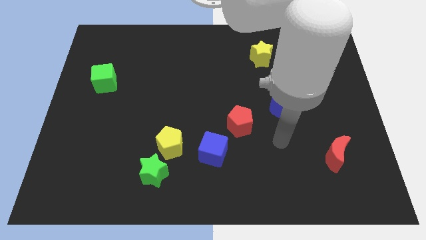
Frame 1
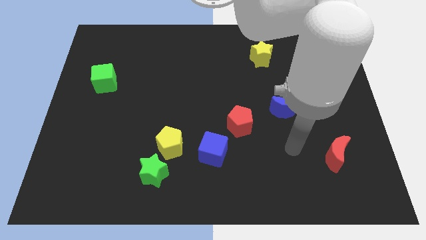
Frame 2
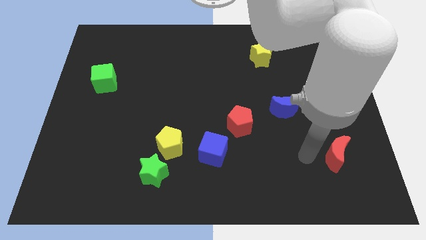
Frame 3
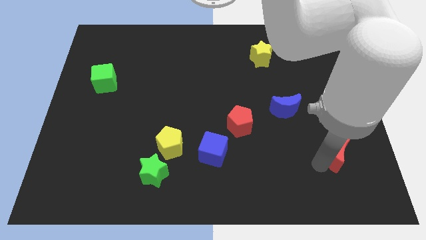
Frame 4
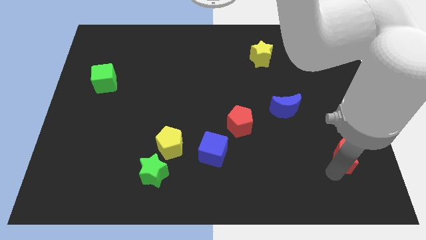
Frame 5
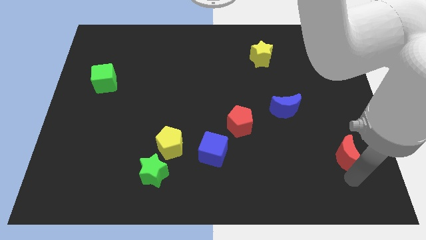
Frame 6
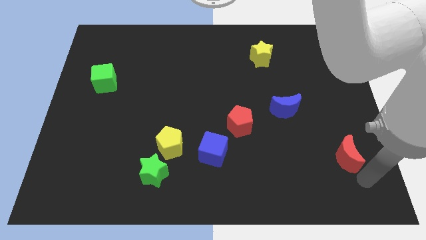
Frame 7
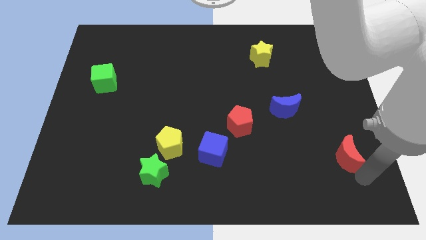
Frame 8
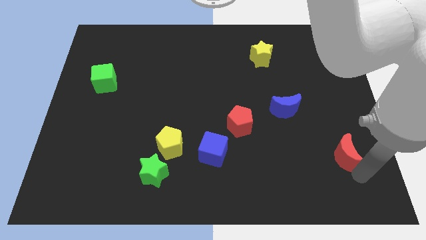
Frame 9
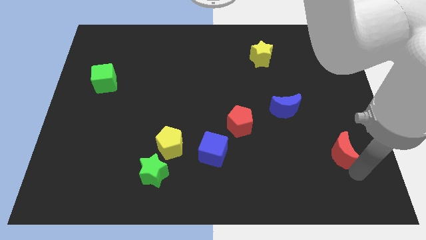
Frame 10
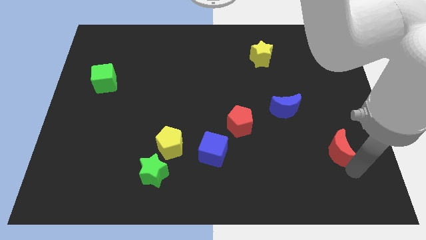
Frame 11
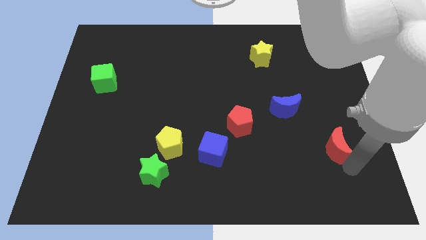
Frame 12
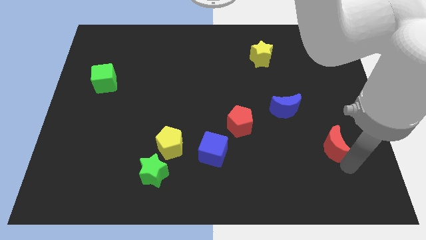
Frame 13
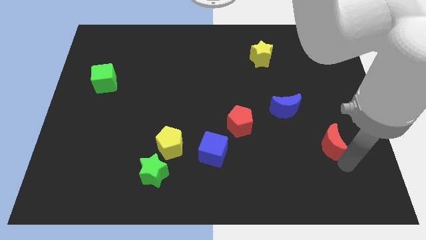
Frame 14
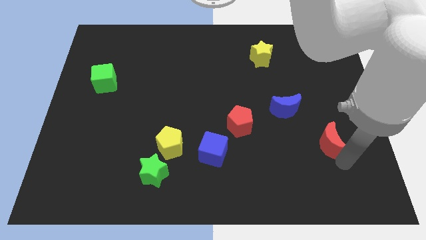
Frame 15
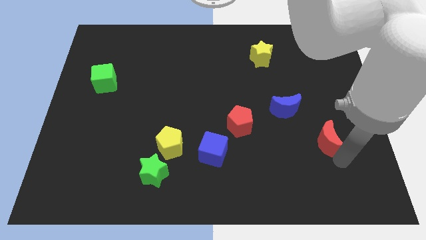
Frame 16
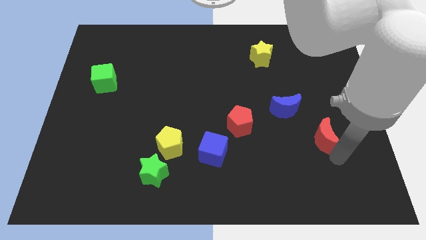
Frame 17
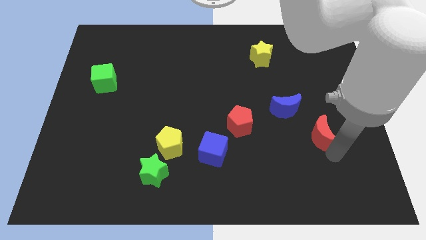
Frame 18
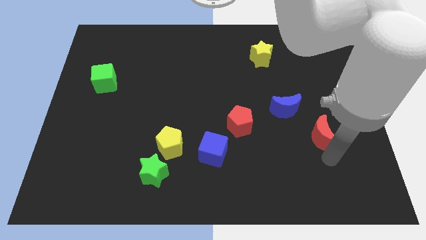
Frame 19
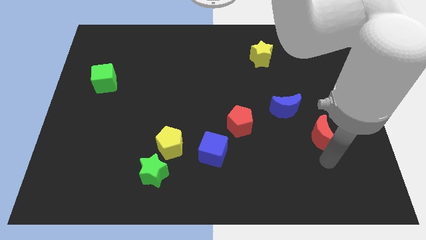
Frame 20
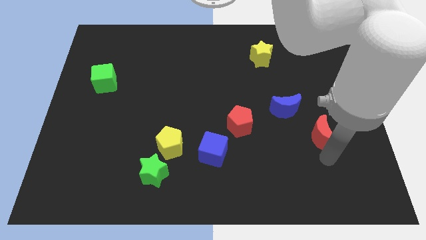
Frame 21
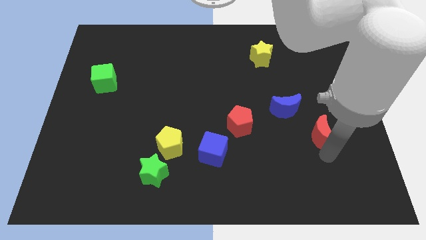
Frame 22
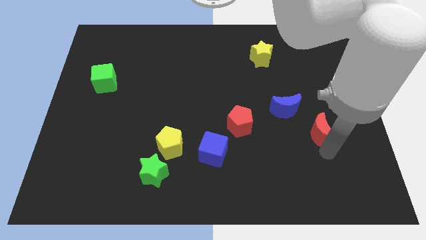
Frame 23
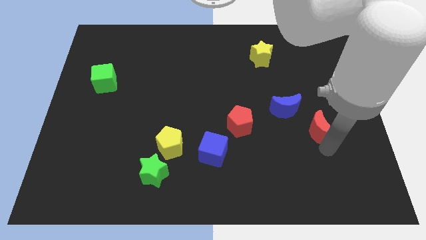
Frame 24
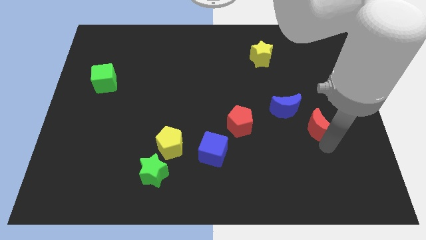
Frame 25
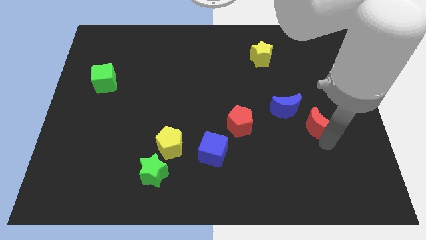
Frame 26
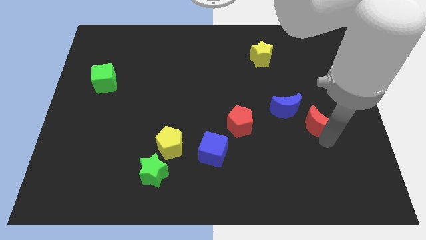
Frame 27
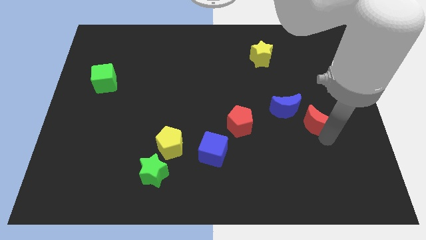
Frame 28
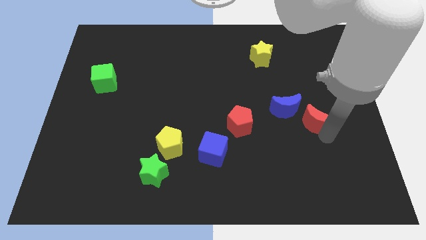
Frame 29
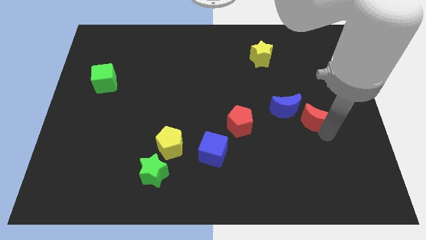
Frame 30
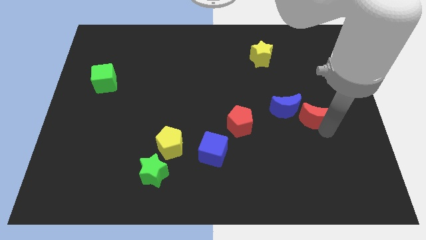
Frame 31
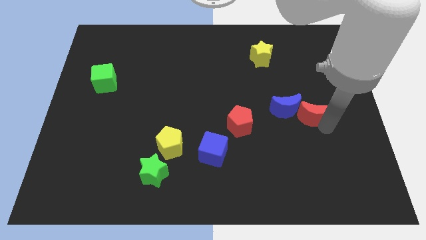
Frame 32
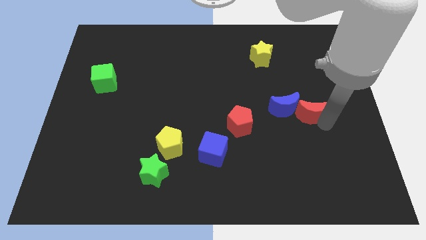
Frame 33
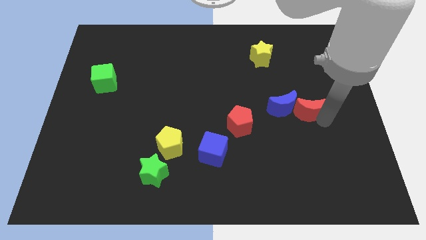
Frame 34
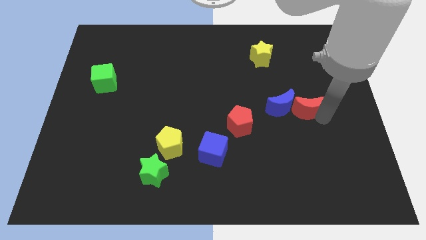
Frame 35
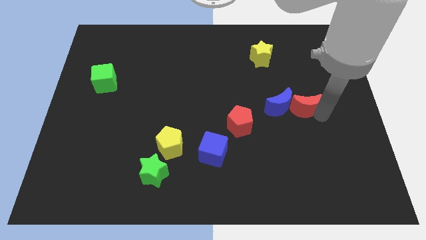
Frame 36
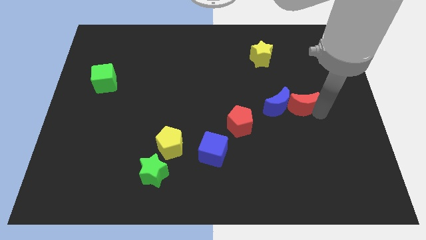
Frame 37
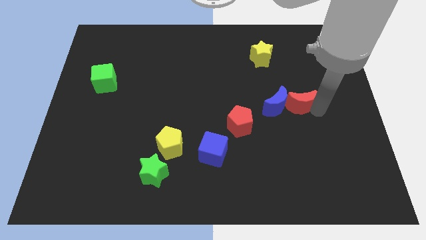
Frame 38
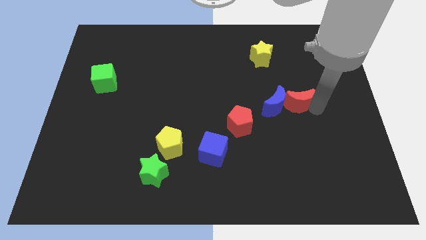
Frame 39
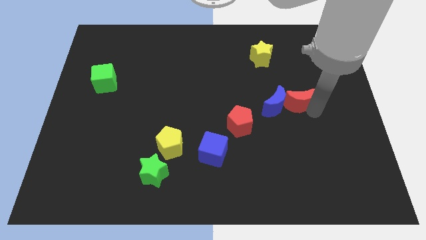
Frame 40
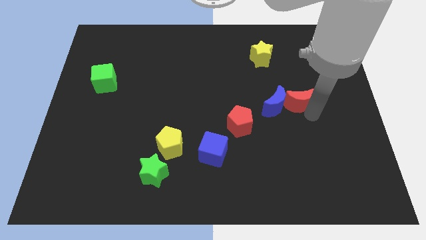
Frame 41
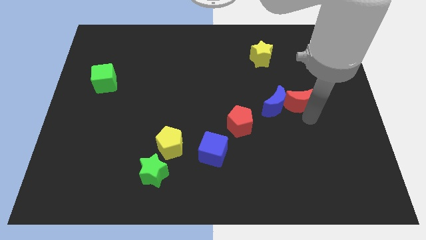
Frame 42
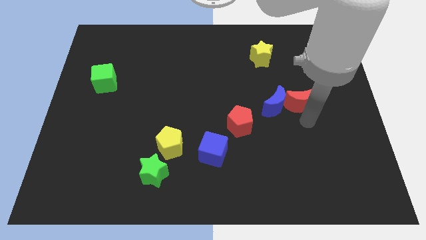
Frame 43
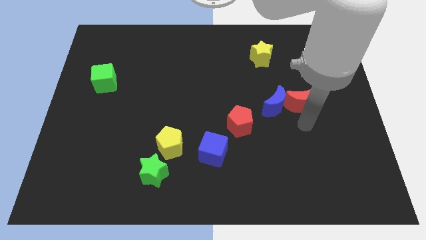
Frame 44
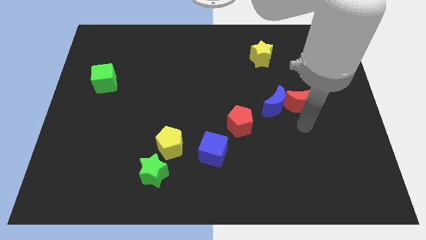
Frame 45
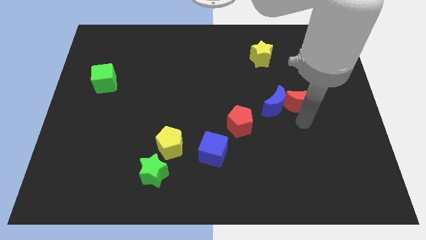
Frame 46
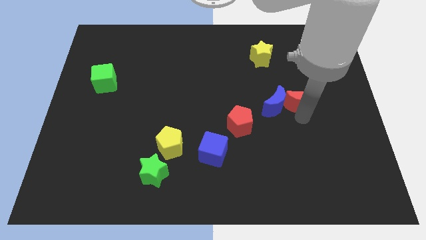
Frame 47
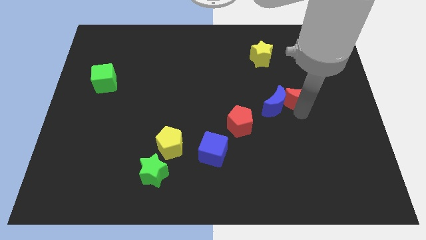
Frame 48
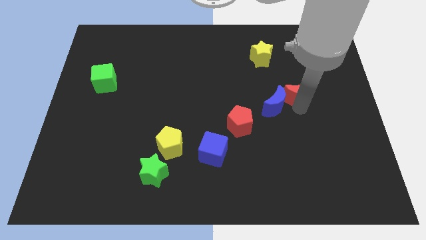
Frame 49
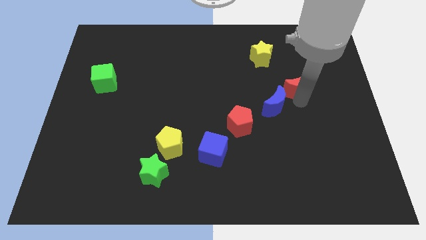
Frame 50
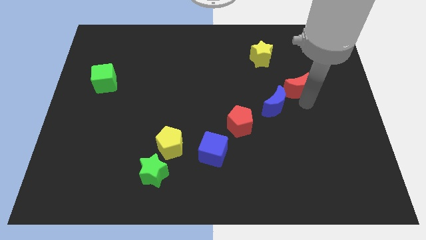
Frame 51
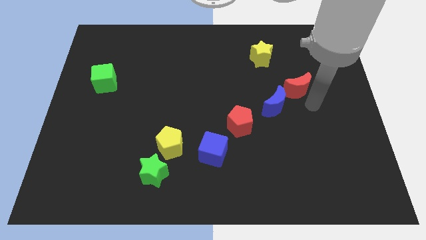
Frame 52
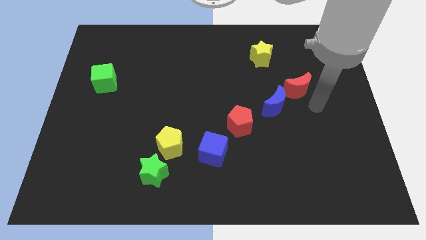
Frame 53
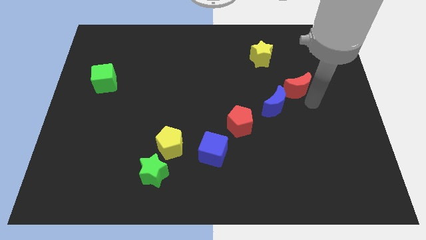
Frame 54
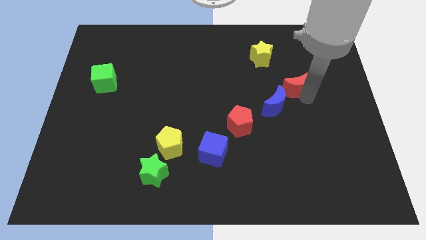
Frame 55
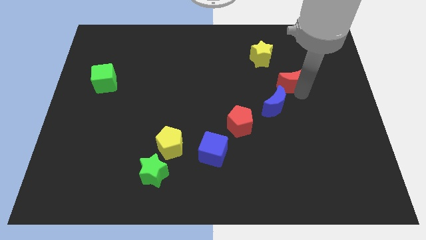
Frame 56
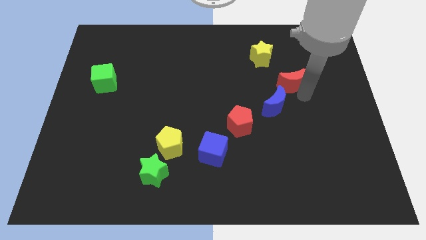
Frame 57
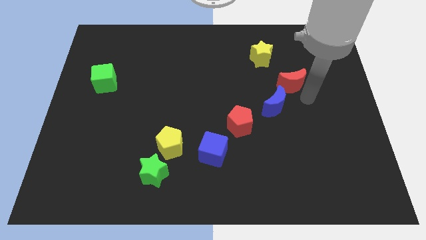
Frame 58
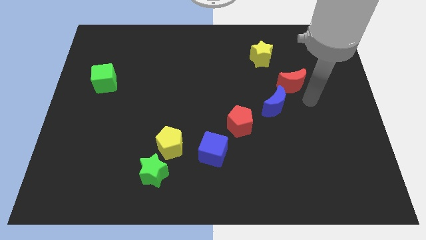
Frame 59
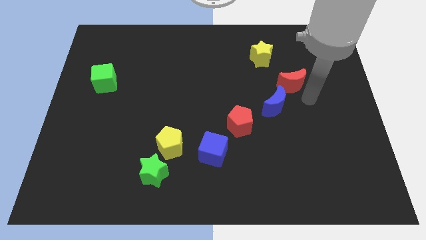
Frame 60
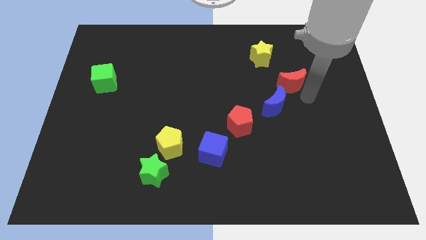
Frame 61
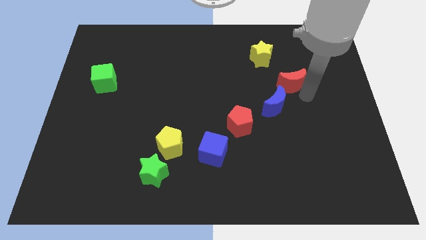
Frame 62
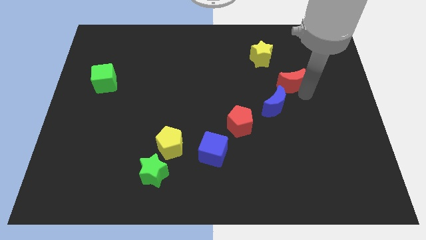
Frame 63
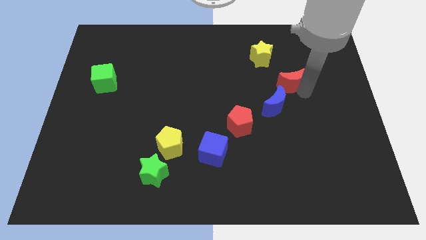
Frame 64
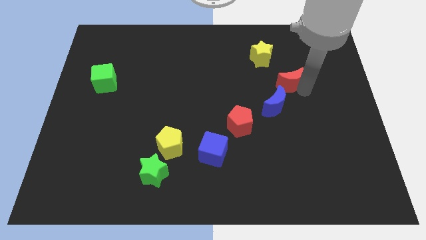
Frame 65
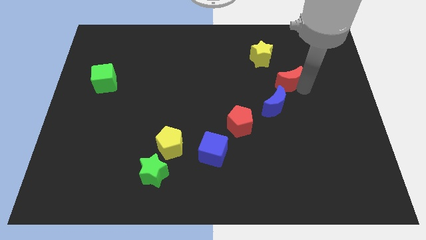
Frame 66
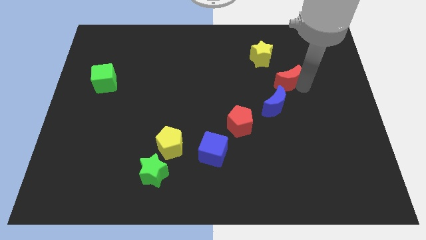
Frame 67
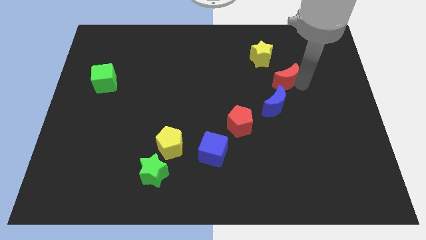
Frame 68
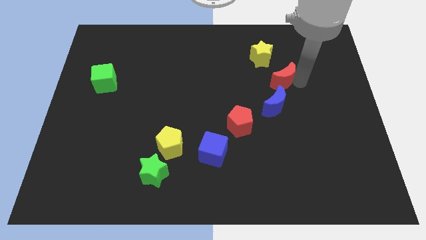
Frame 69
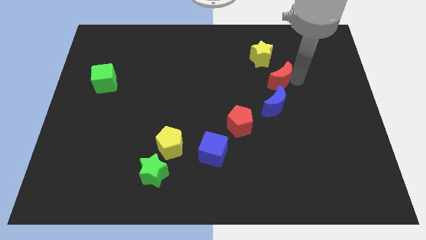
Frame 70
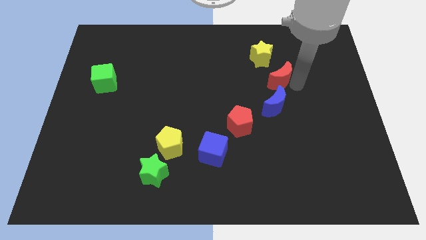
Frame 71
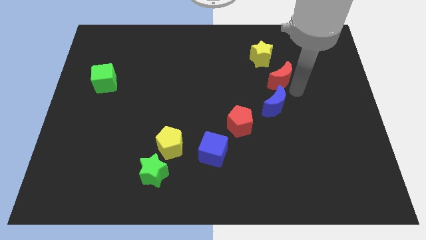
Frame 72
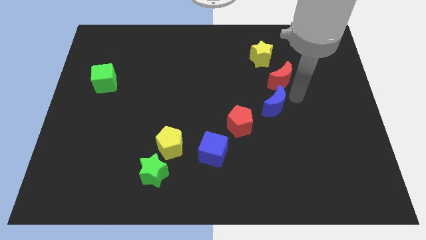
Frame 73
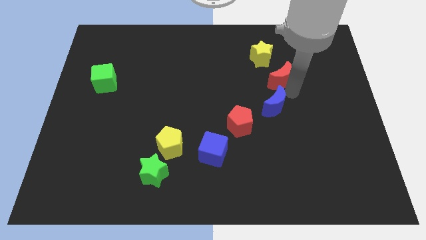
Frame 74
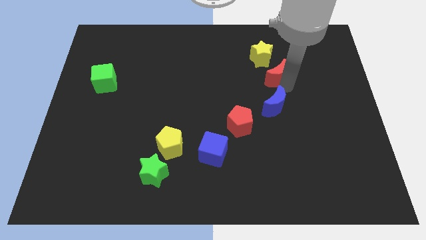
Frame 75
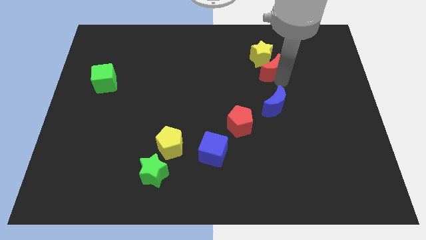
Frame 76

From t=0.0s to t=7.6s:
push the red moon towards the yellow star
